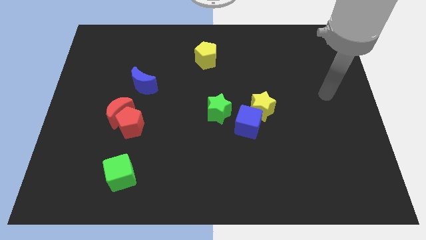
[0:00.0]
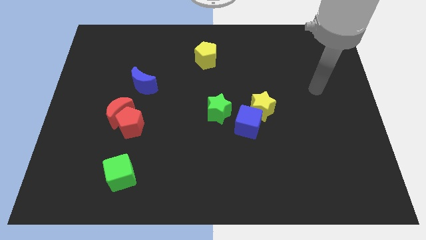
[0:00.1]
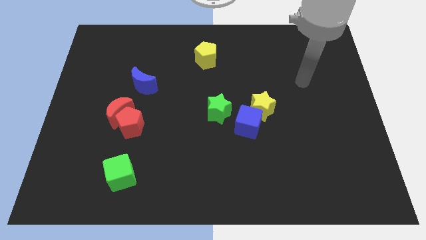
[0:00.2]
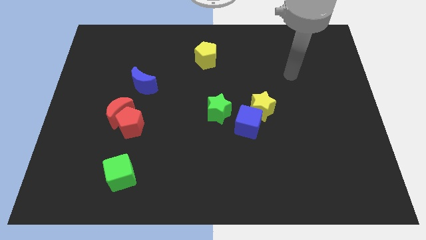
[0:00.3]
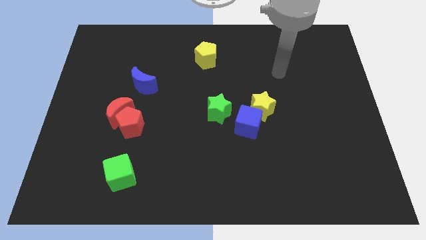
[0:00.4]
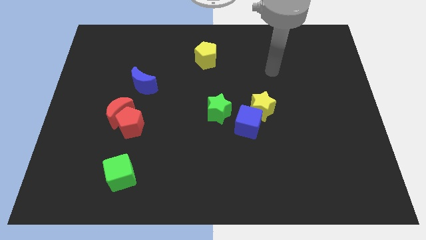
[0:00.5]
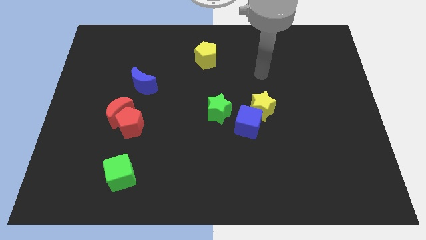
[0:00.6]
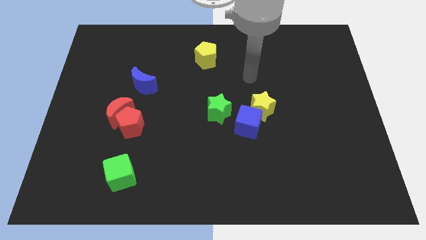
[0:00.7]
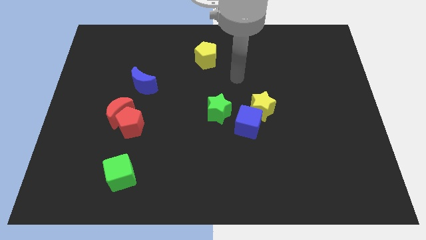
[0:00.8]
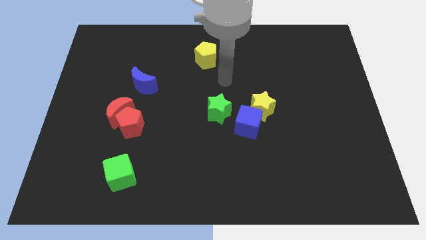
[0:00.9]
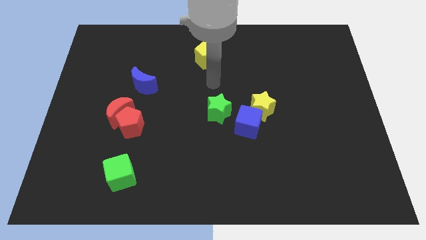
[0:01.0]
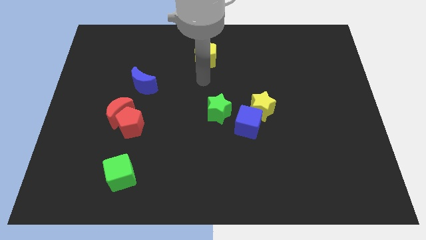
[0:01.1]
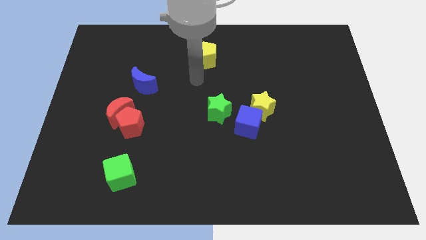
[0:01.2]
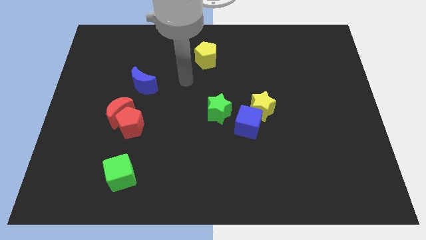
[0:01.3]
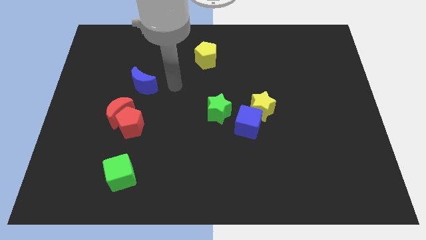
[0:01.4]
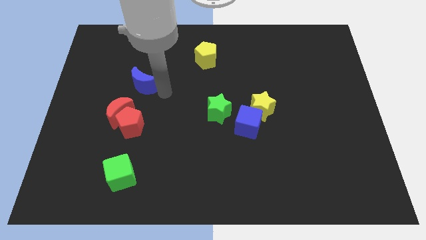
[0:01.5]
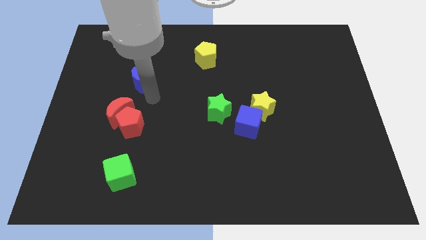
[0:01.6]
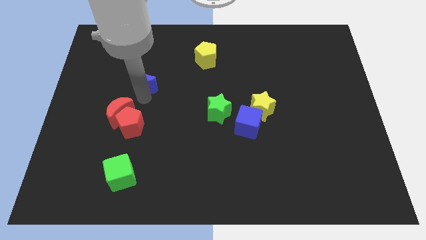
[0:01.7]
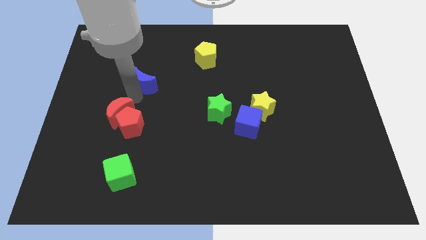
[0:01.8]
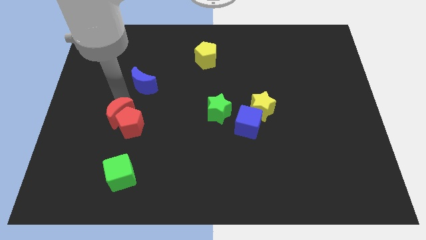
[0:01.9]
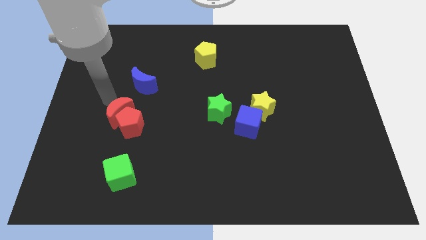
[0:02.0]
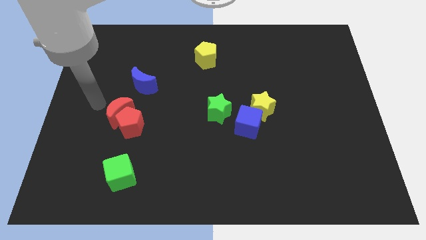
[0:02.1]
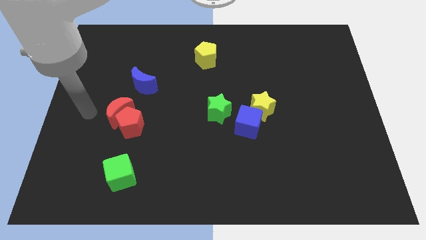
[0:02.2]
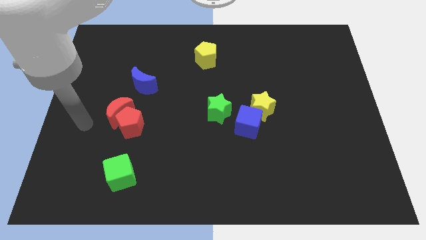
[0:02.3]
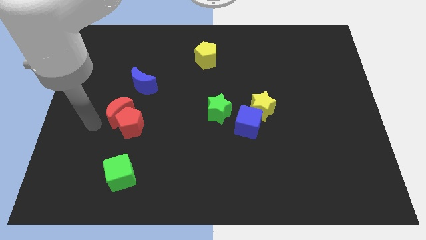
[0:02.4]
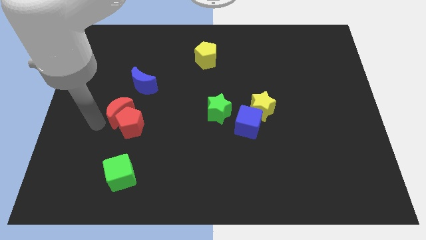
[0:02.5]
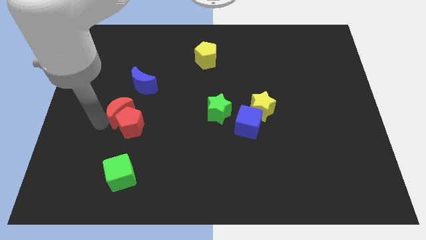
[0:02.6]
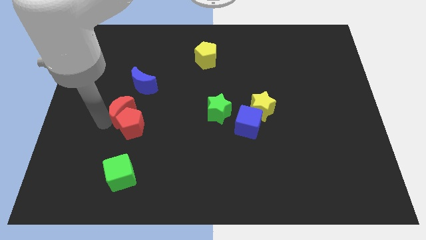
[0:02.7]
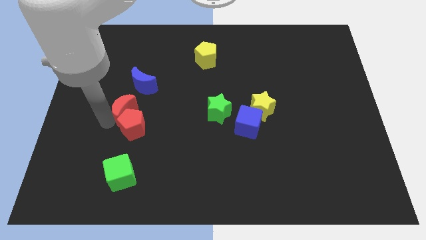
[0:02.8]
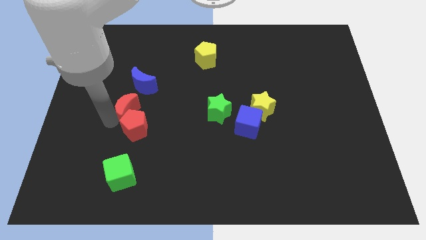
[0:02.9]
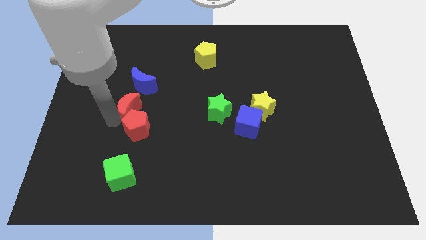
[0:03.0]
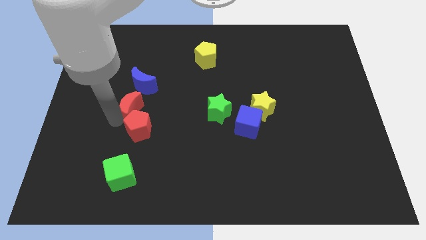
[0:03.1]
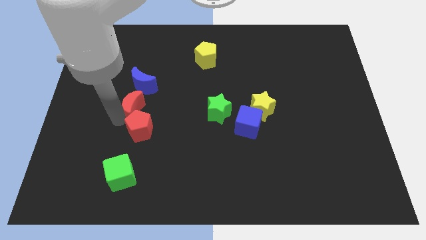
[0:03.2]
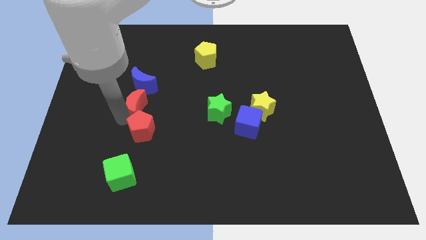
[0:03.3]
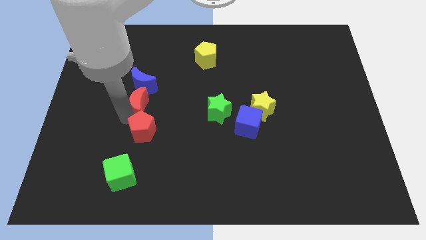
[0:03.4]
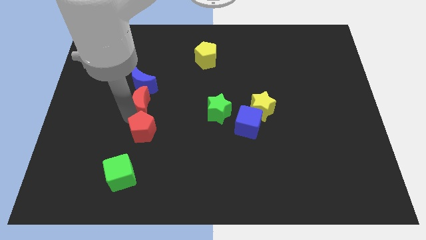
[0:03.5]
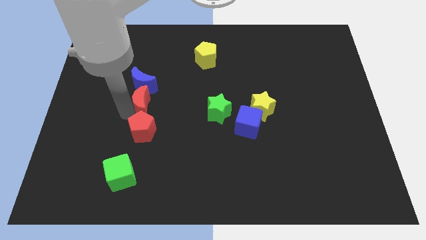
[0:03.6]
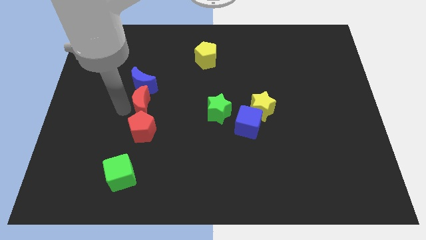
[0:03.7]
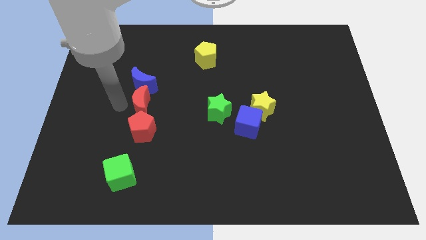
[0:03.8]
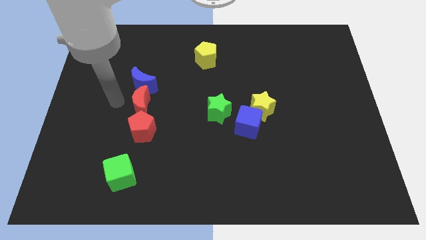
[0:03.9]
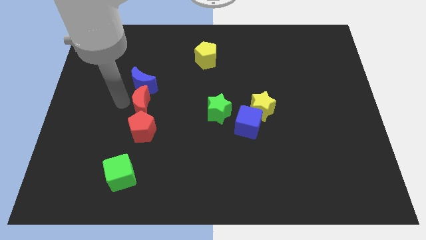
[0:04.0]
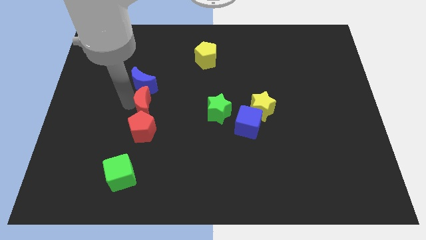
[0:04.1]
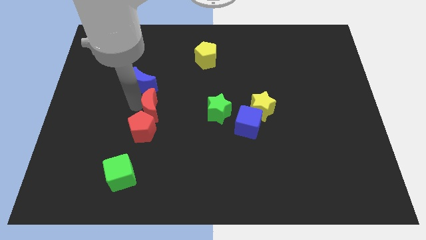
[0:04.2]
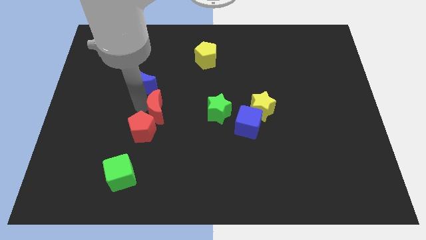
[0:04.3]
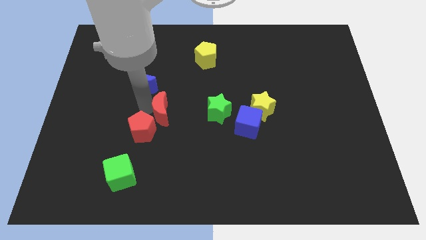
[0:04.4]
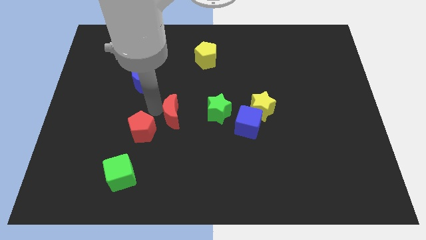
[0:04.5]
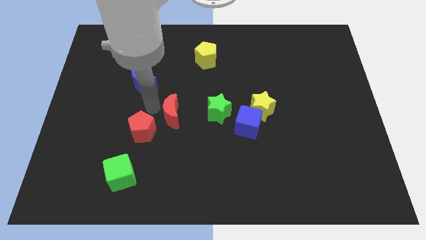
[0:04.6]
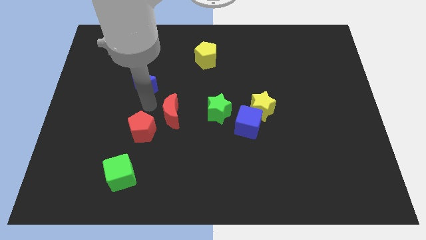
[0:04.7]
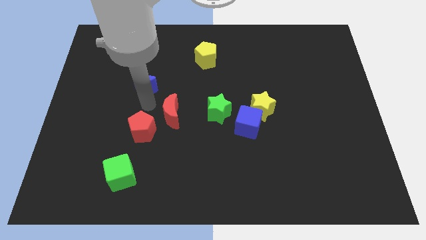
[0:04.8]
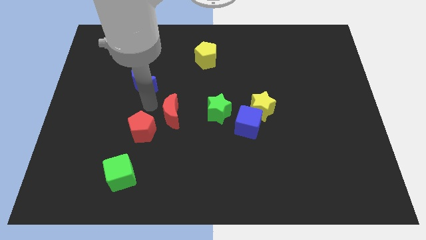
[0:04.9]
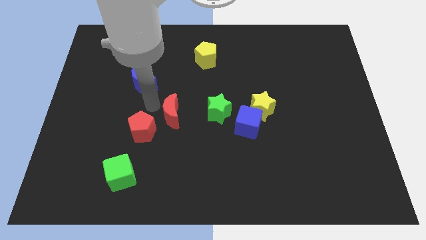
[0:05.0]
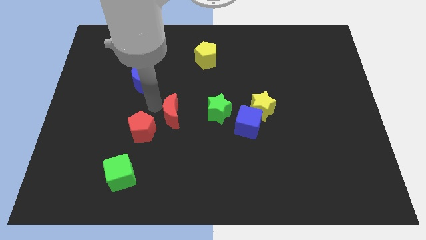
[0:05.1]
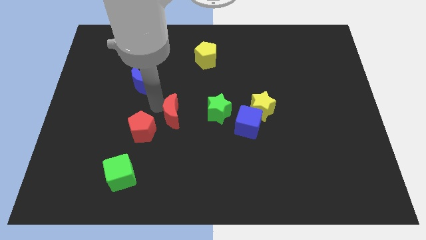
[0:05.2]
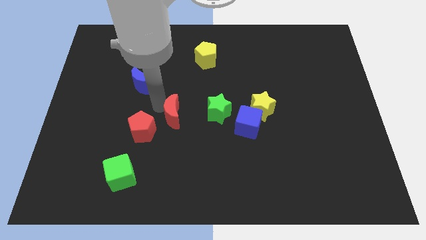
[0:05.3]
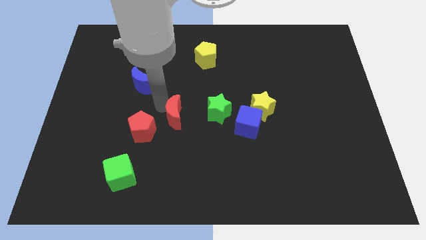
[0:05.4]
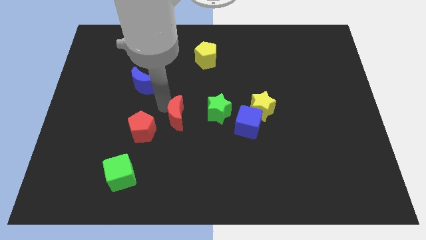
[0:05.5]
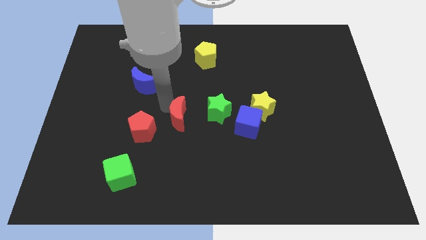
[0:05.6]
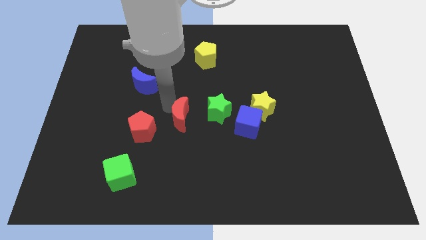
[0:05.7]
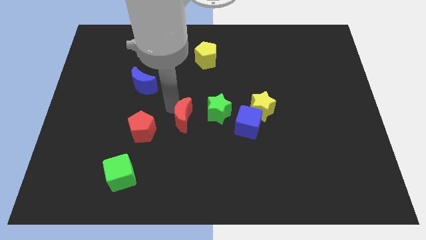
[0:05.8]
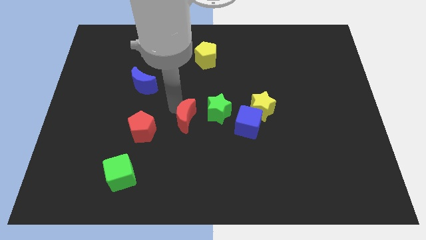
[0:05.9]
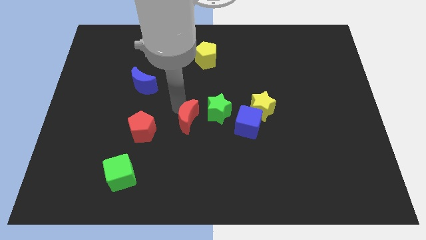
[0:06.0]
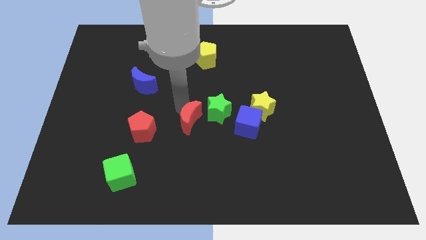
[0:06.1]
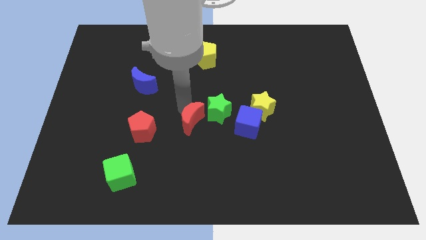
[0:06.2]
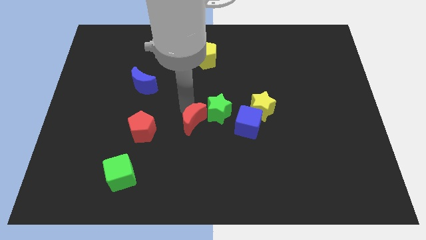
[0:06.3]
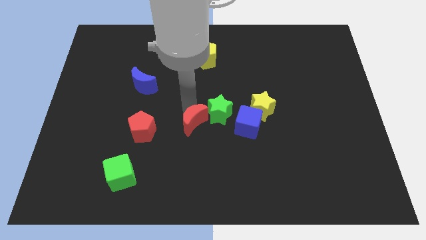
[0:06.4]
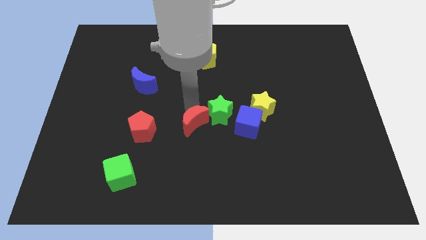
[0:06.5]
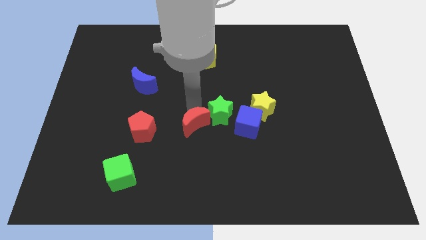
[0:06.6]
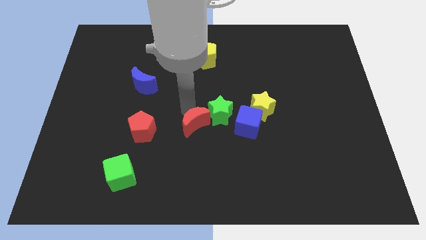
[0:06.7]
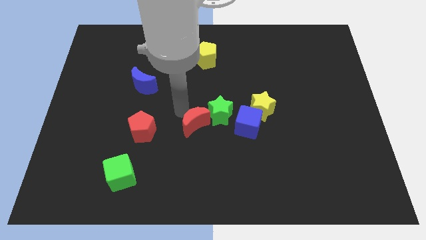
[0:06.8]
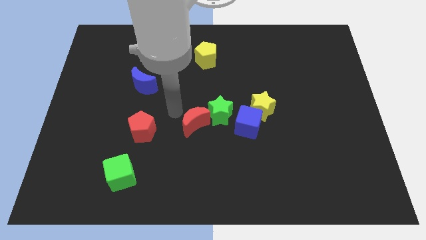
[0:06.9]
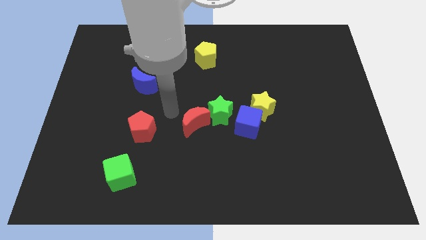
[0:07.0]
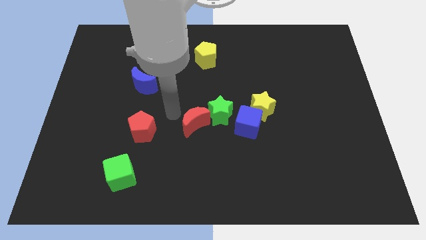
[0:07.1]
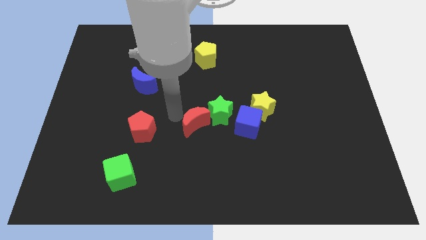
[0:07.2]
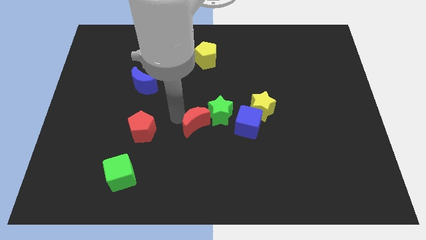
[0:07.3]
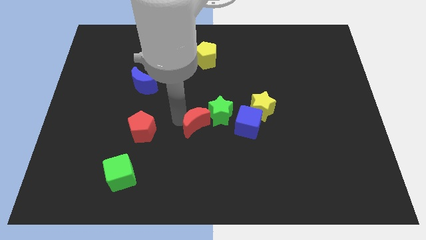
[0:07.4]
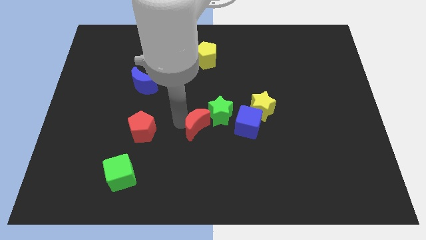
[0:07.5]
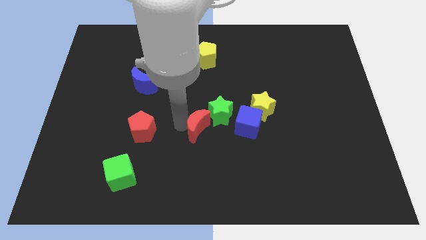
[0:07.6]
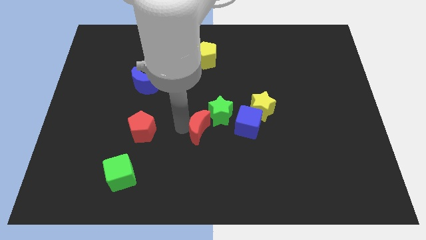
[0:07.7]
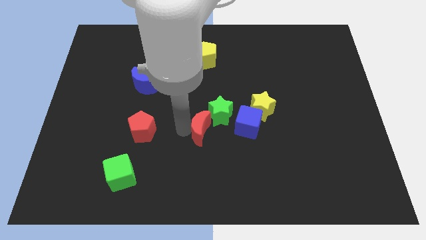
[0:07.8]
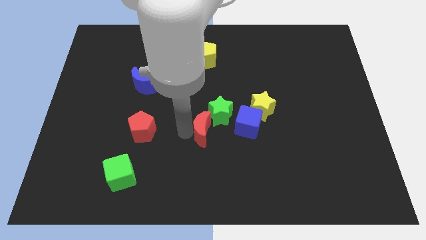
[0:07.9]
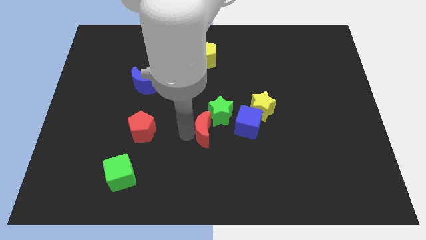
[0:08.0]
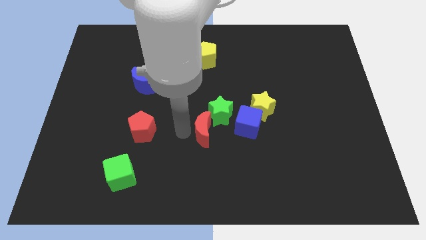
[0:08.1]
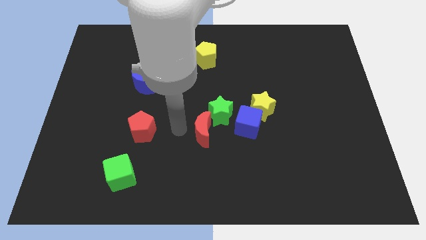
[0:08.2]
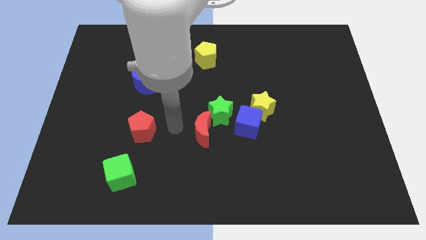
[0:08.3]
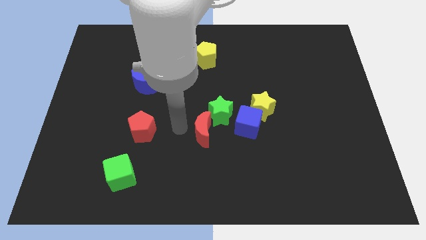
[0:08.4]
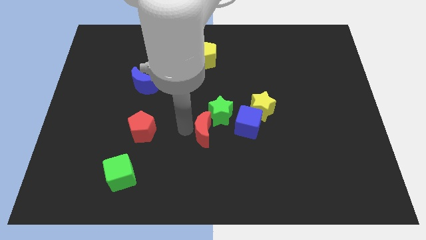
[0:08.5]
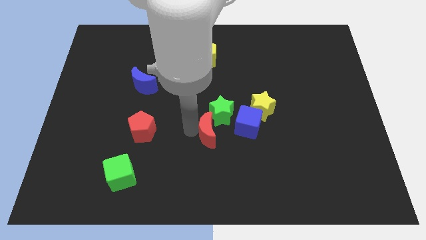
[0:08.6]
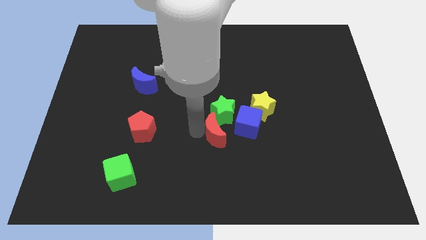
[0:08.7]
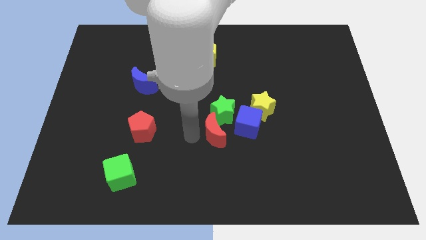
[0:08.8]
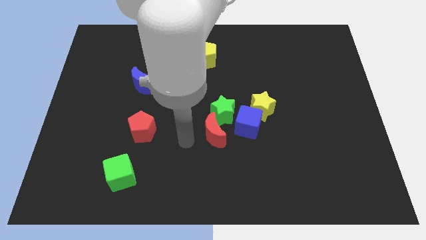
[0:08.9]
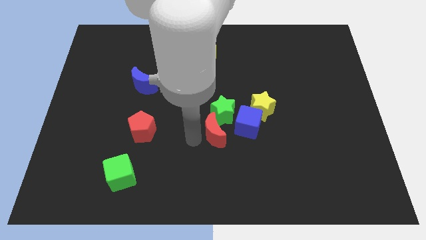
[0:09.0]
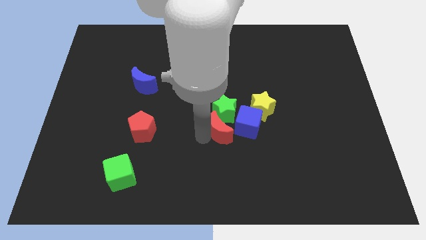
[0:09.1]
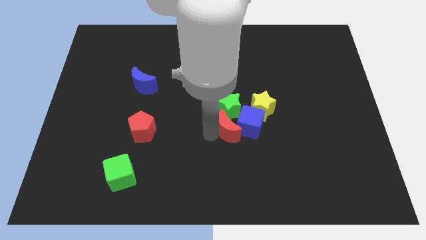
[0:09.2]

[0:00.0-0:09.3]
put the red moon to the blue cube
